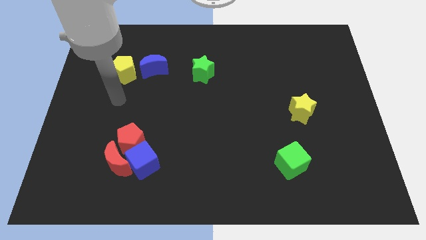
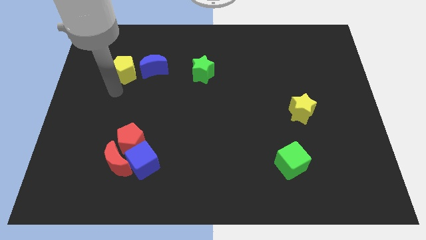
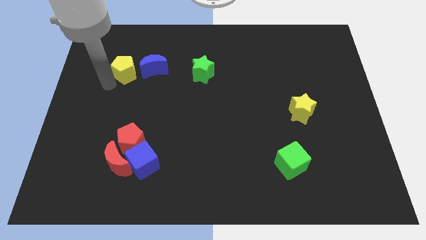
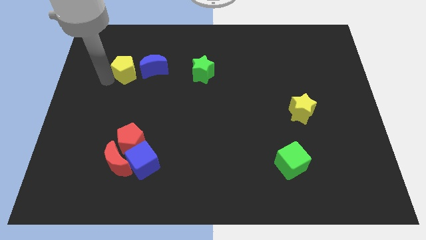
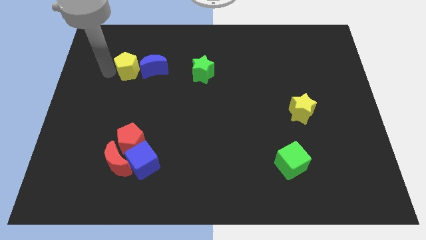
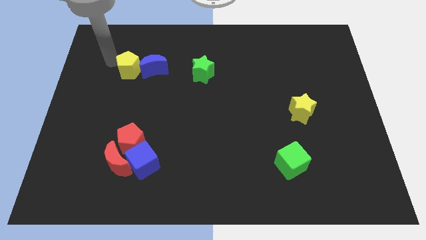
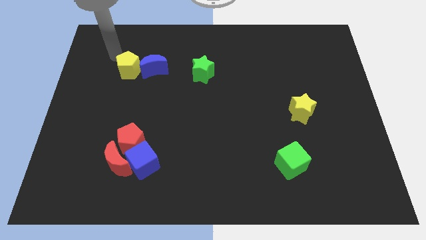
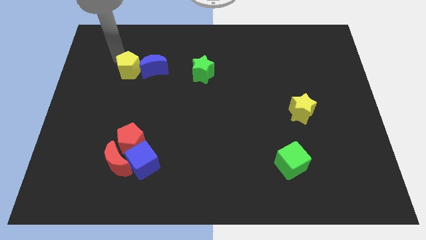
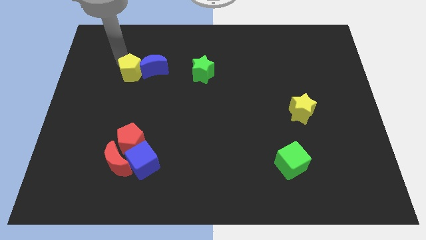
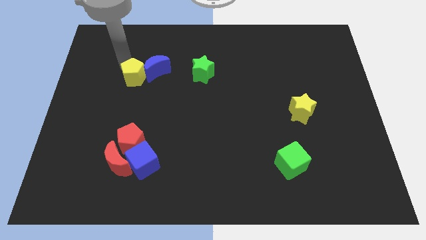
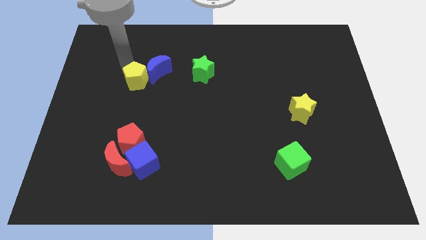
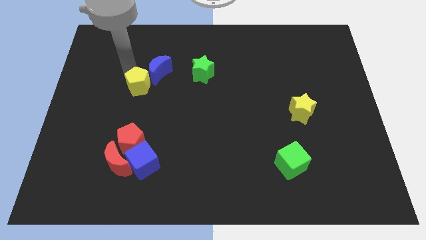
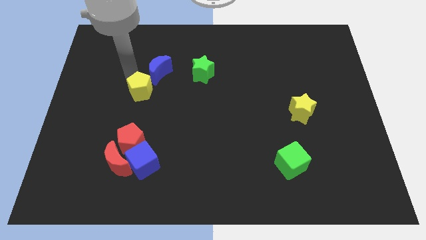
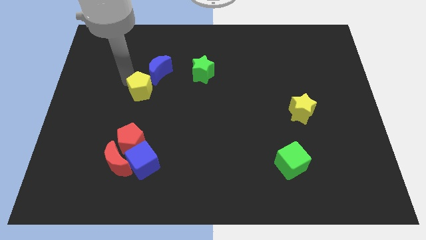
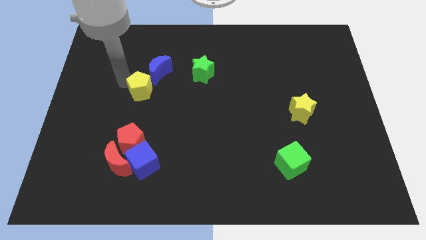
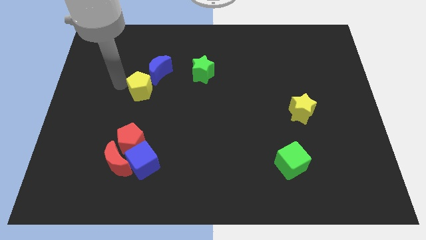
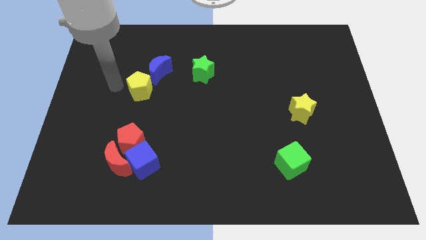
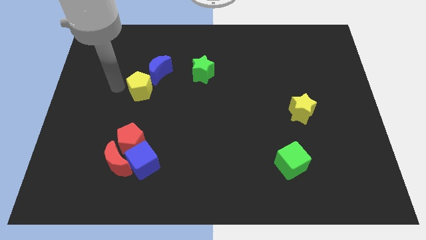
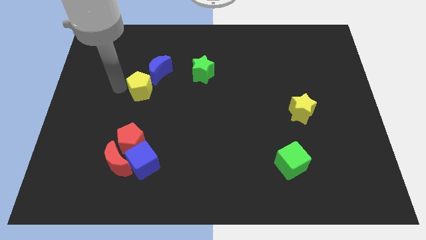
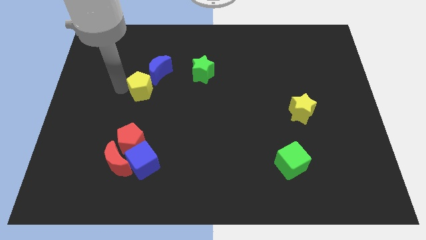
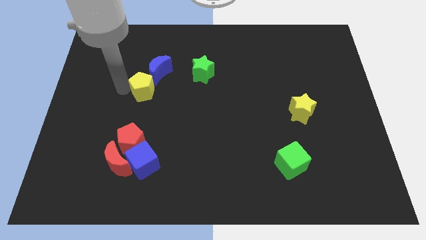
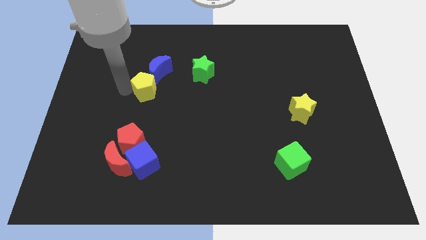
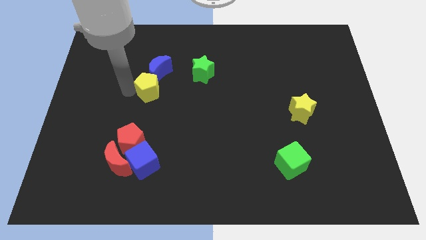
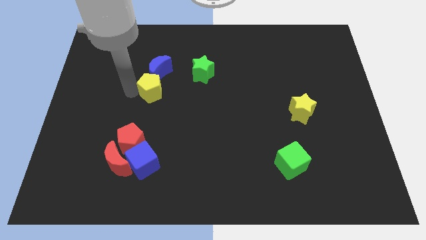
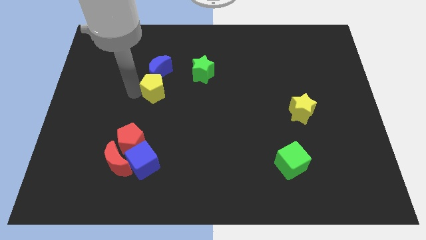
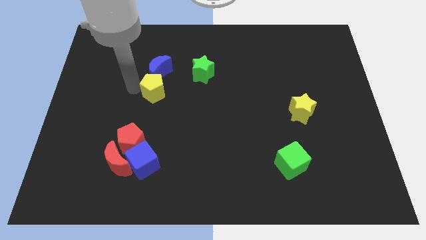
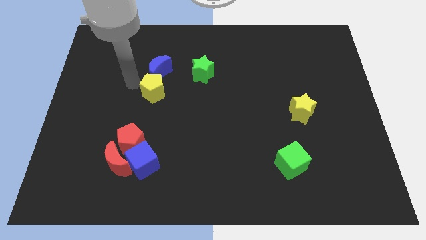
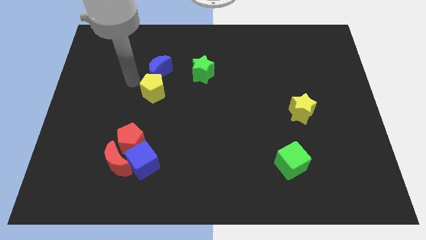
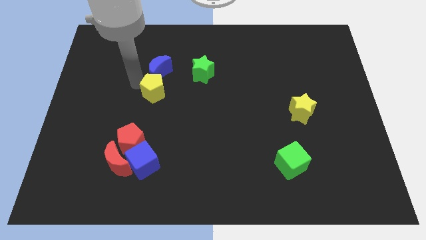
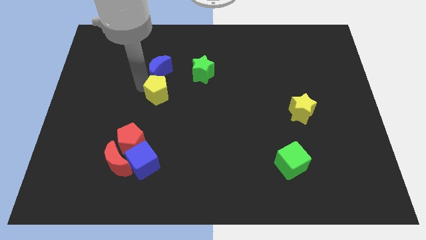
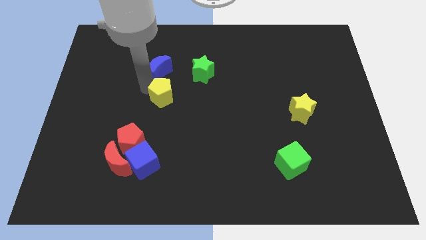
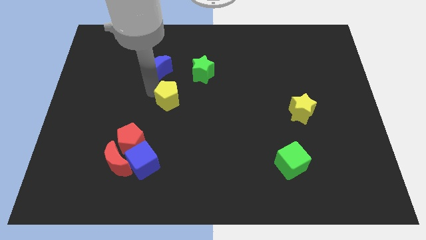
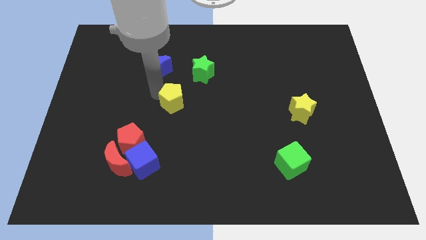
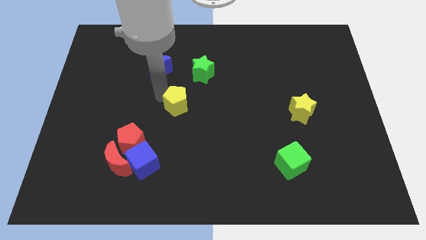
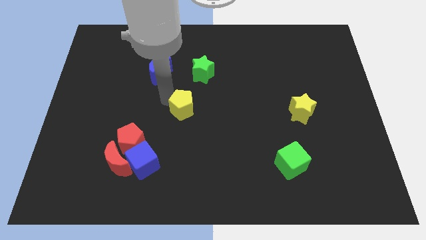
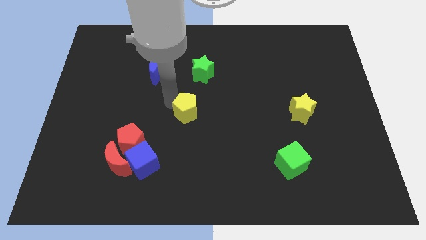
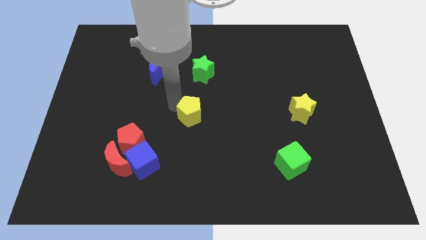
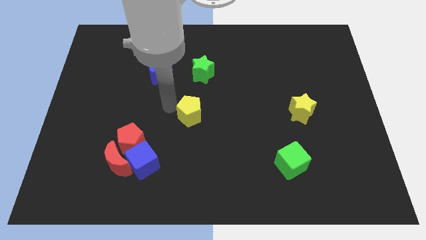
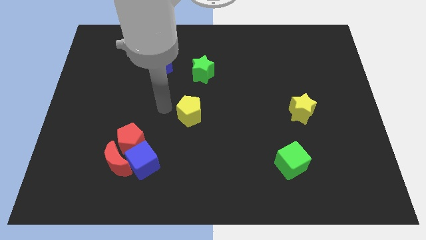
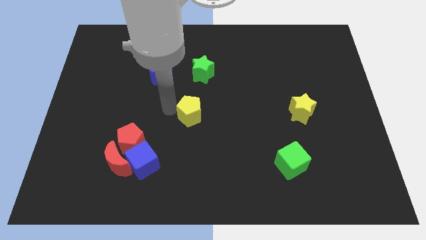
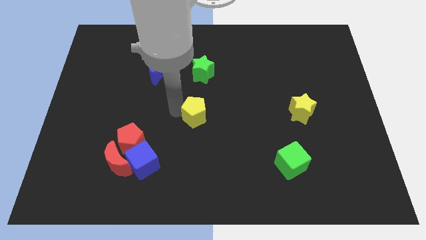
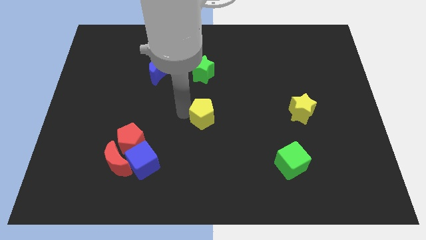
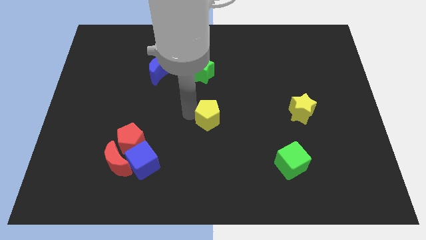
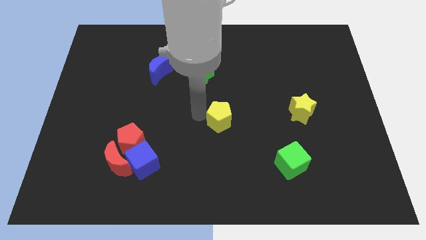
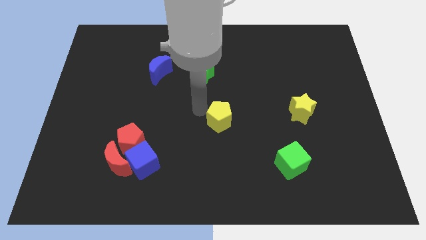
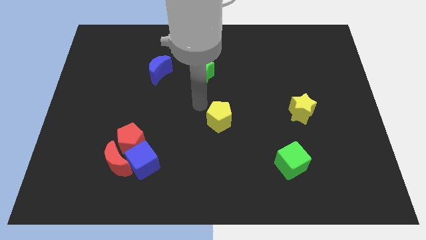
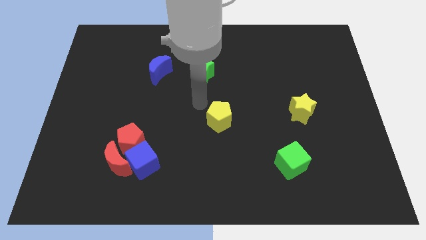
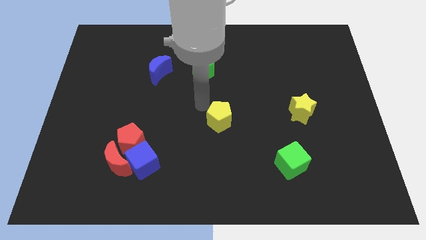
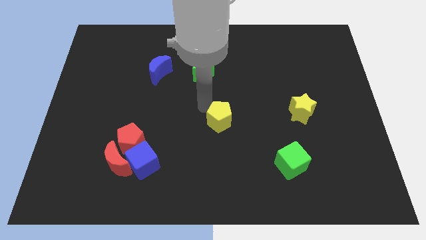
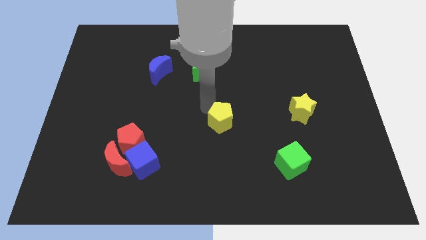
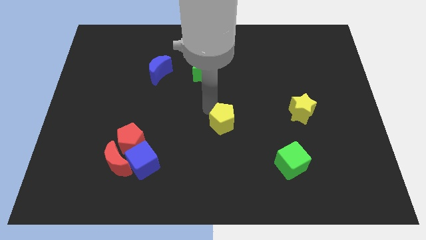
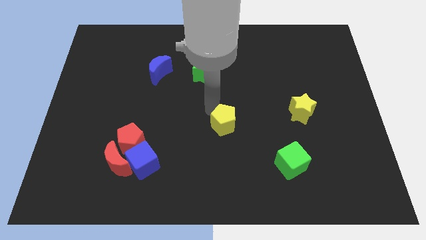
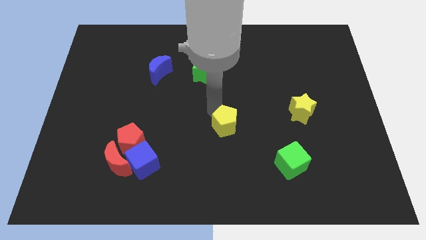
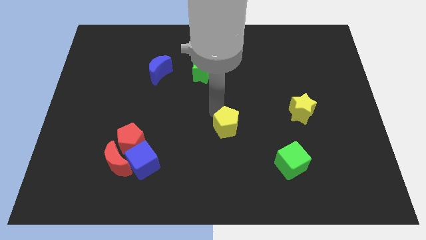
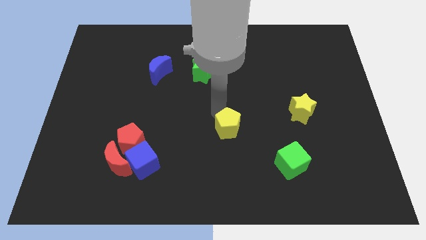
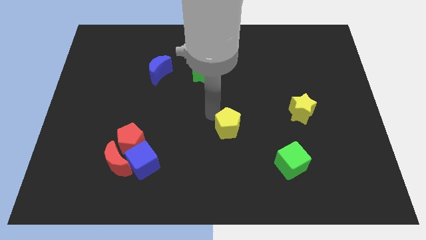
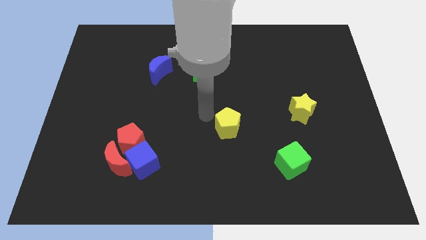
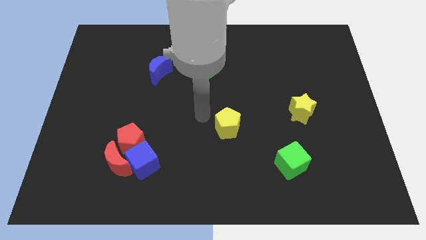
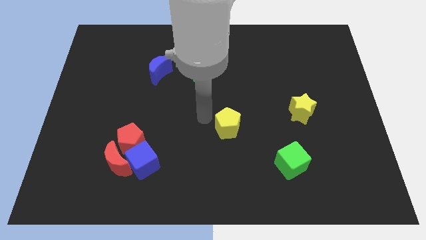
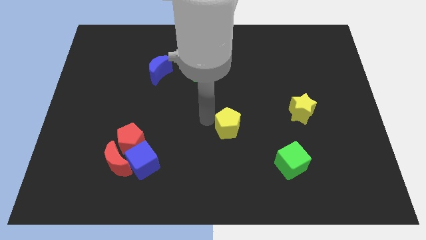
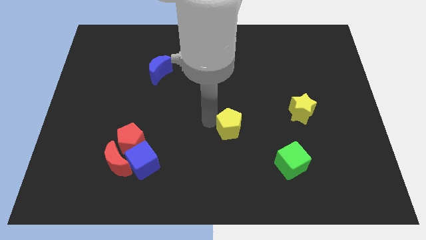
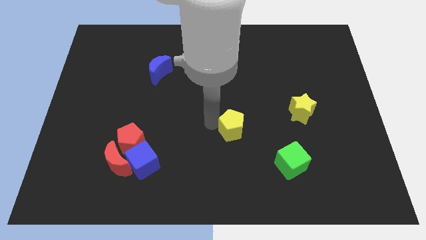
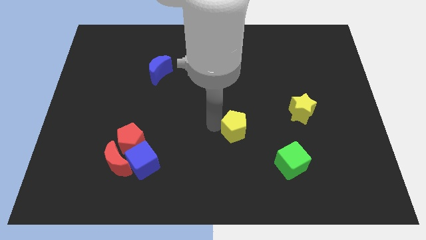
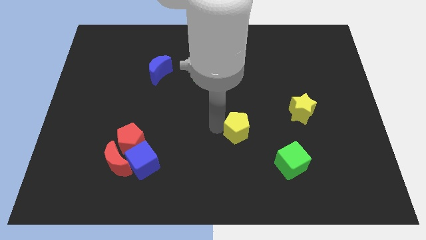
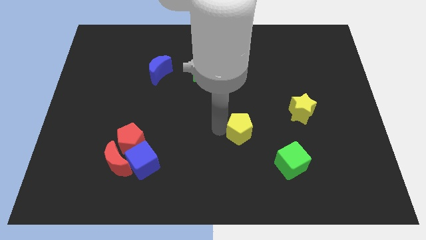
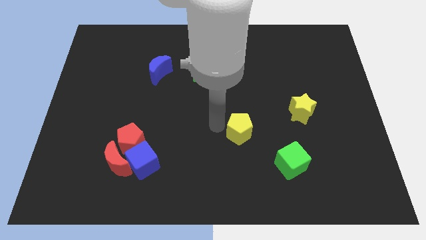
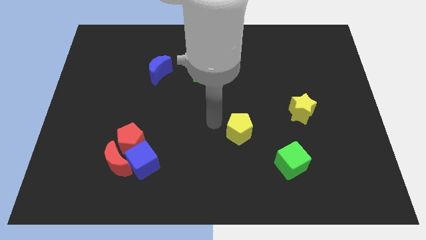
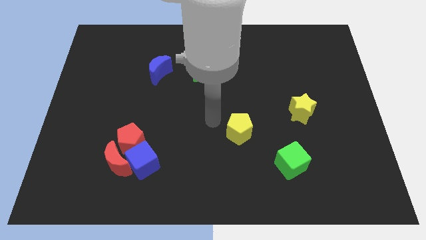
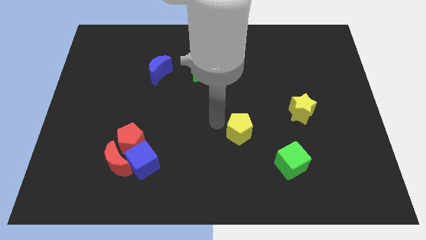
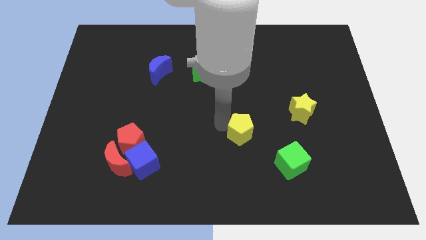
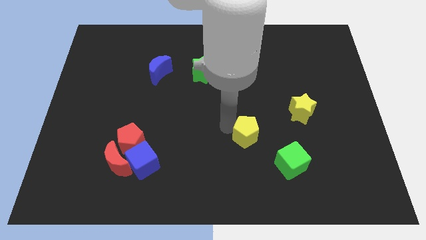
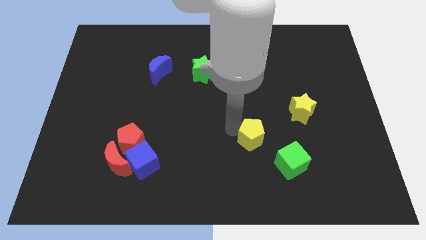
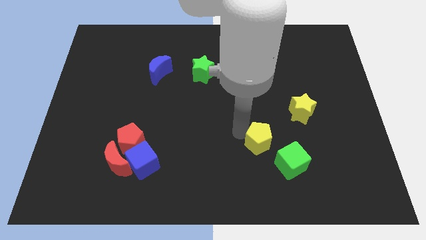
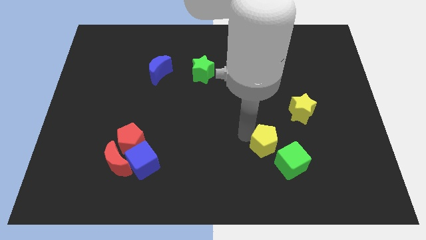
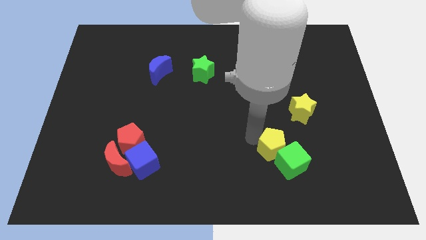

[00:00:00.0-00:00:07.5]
put the yellow pentagon next to the green cube
